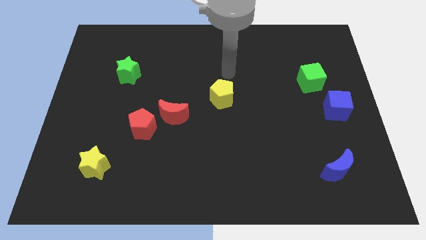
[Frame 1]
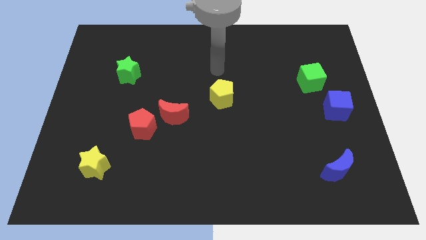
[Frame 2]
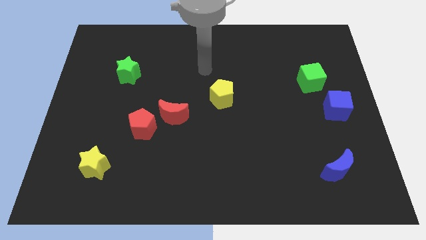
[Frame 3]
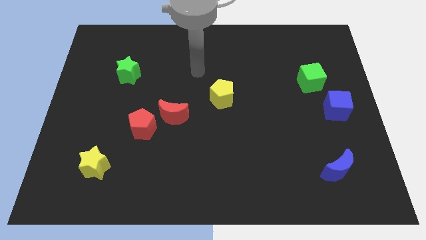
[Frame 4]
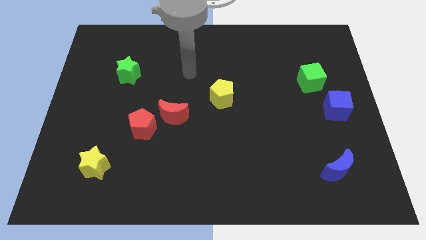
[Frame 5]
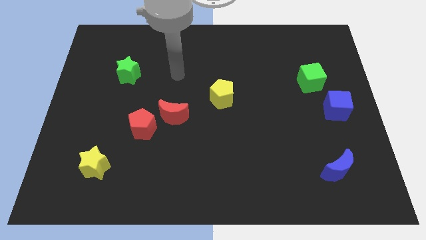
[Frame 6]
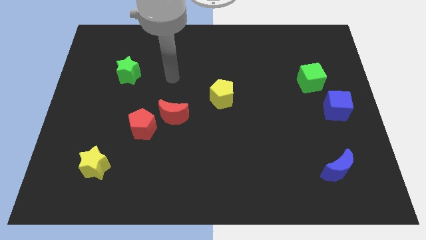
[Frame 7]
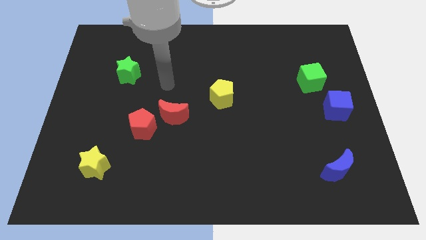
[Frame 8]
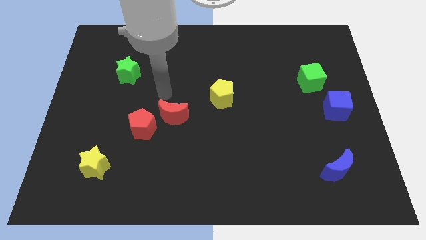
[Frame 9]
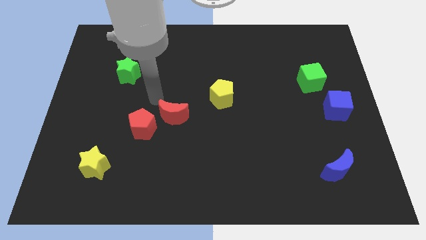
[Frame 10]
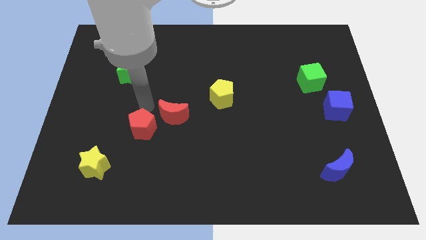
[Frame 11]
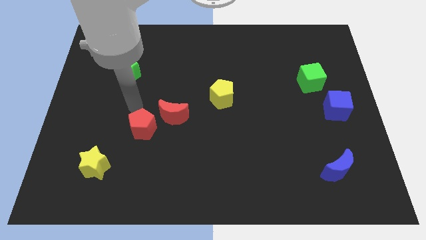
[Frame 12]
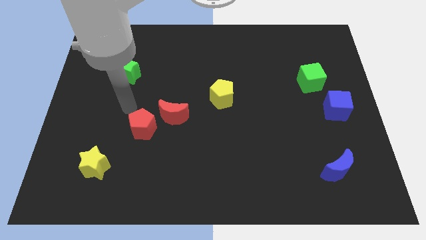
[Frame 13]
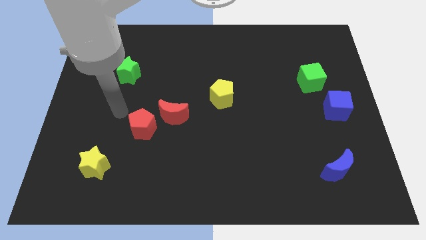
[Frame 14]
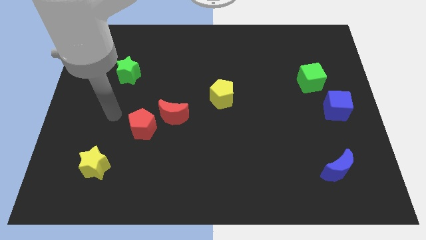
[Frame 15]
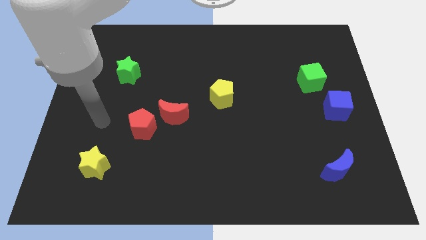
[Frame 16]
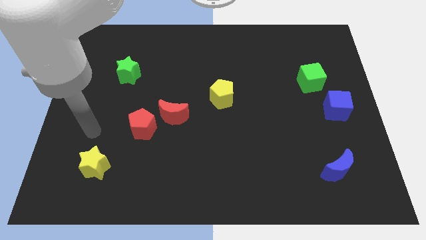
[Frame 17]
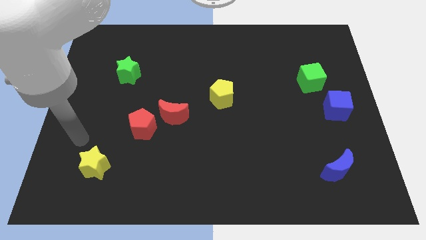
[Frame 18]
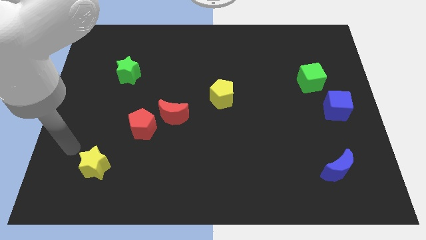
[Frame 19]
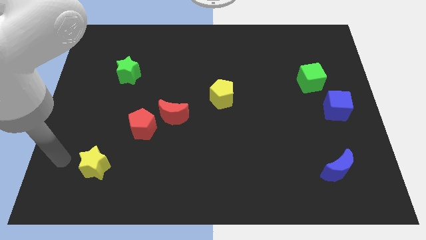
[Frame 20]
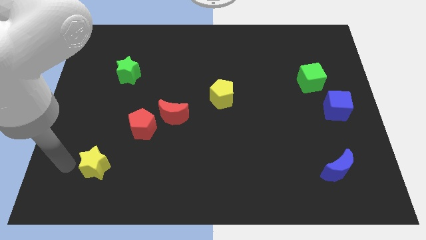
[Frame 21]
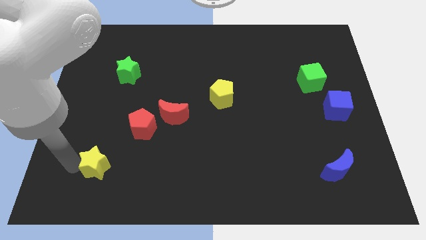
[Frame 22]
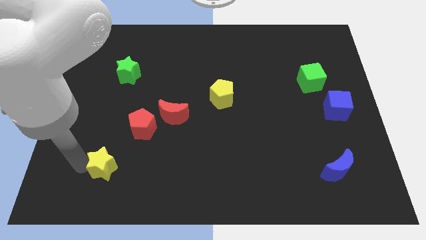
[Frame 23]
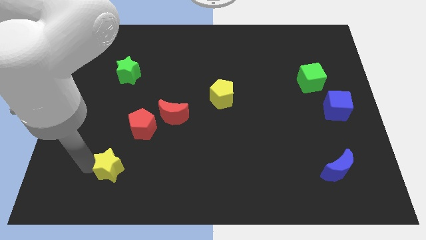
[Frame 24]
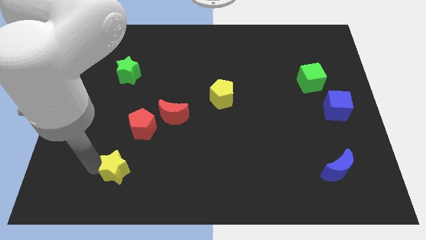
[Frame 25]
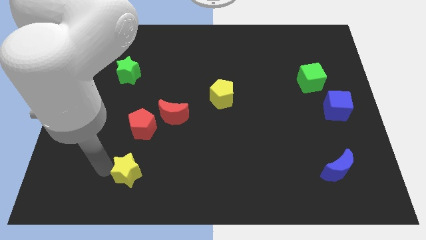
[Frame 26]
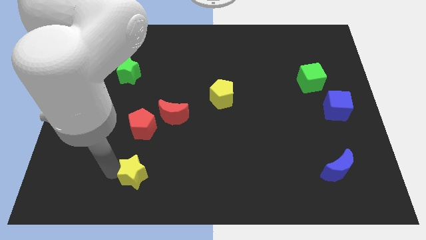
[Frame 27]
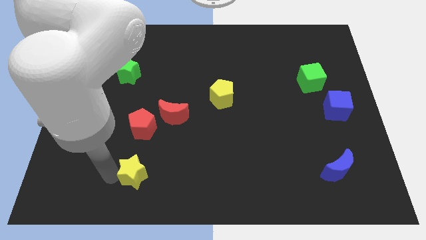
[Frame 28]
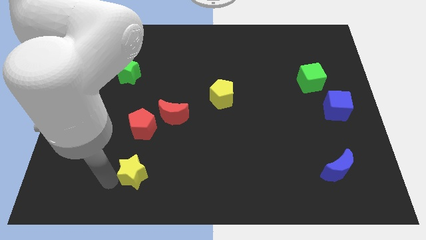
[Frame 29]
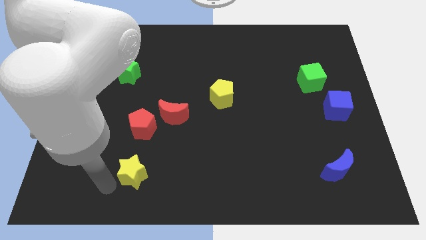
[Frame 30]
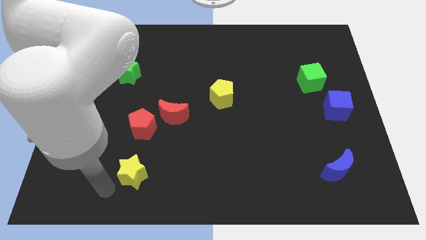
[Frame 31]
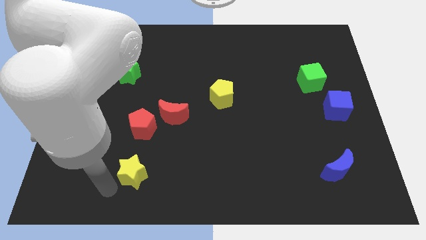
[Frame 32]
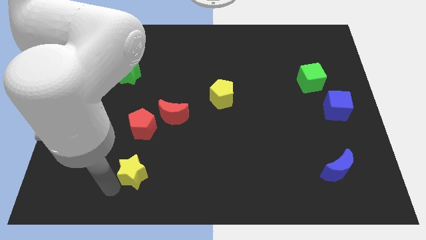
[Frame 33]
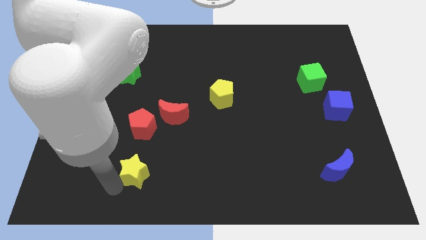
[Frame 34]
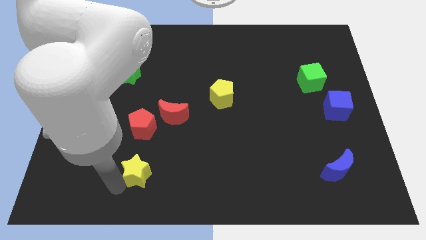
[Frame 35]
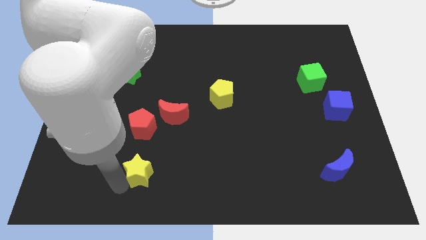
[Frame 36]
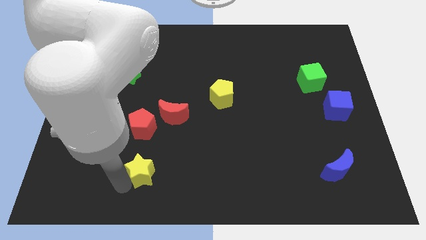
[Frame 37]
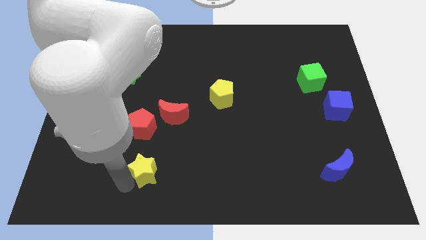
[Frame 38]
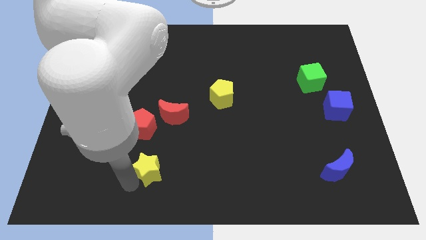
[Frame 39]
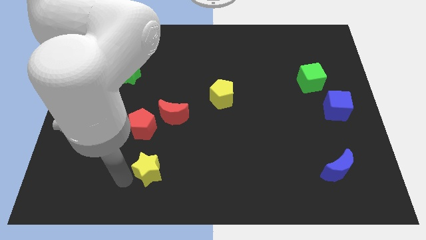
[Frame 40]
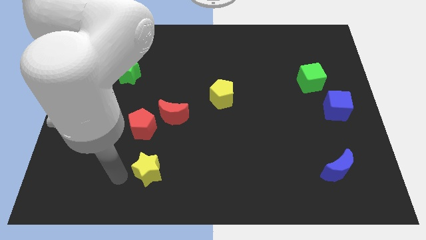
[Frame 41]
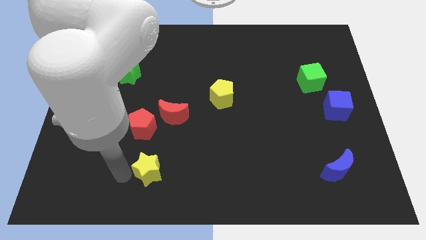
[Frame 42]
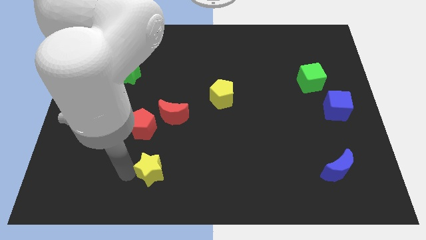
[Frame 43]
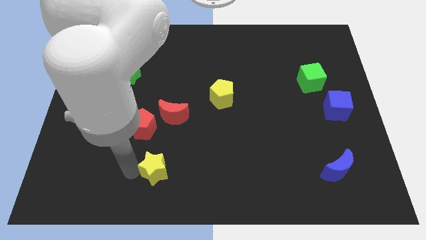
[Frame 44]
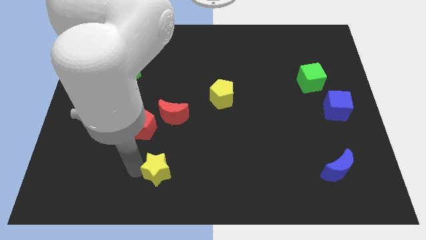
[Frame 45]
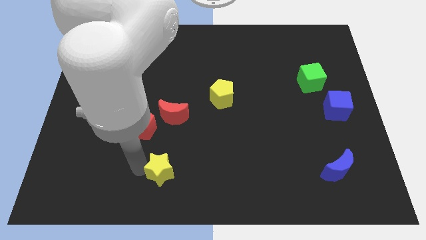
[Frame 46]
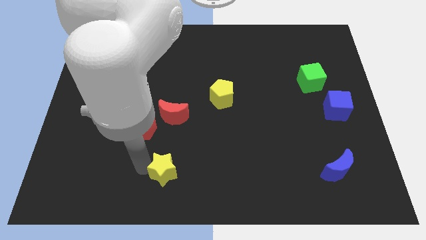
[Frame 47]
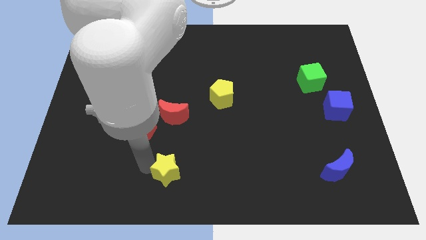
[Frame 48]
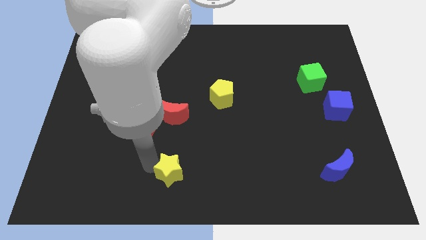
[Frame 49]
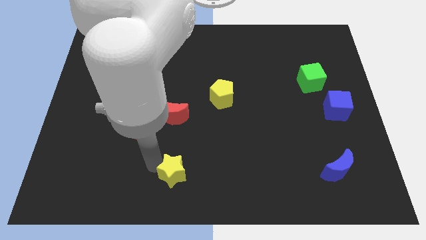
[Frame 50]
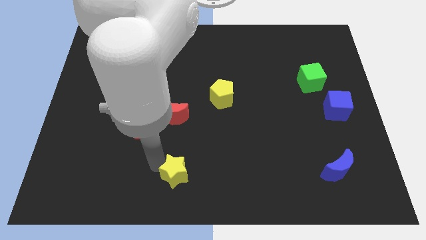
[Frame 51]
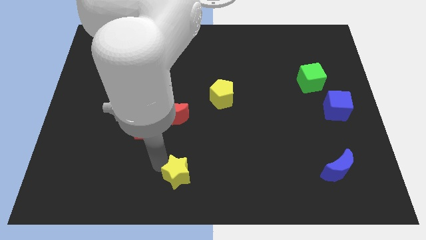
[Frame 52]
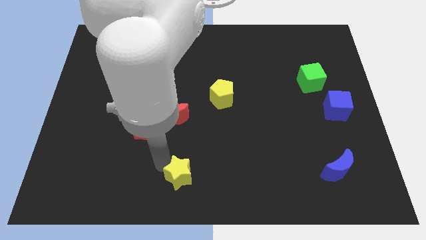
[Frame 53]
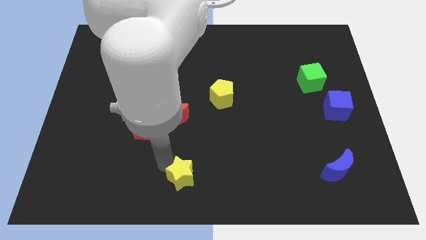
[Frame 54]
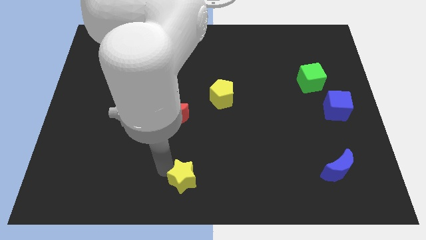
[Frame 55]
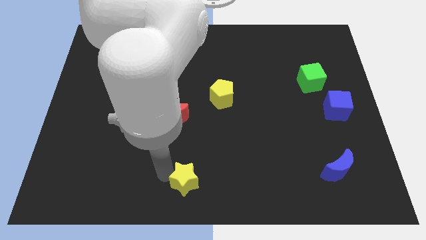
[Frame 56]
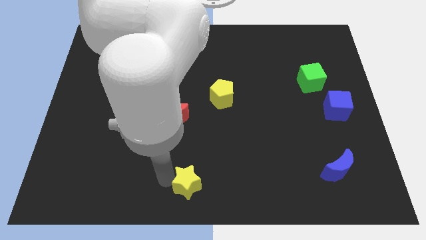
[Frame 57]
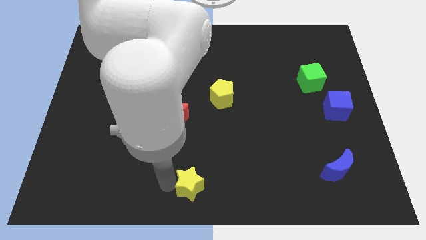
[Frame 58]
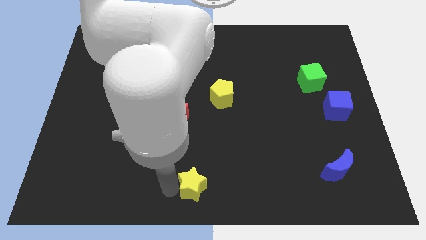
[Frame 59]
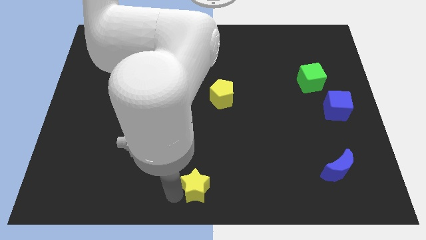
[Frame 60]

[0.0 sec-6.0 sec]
move the yellow star right

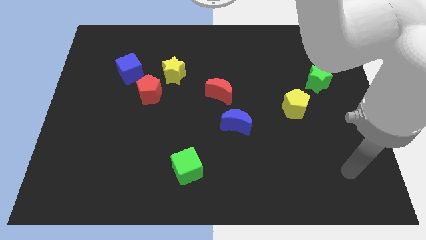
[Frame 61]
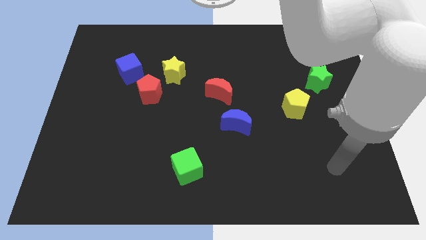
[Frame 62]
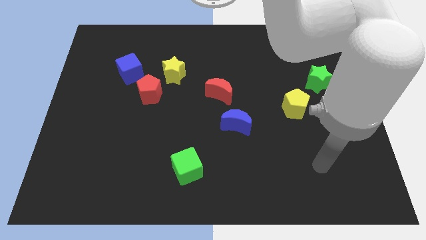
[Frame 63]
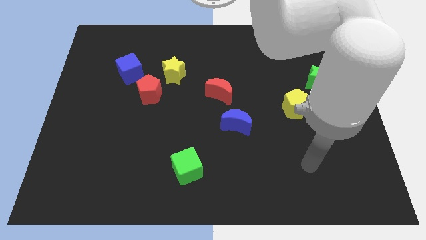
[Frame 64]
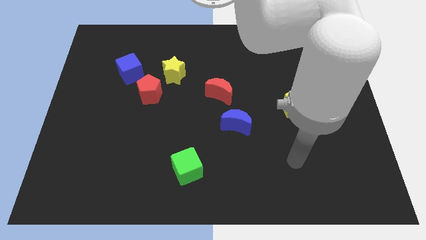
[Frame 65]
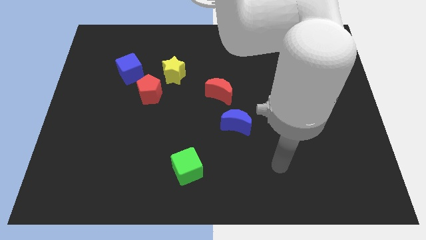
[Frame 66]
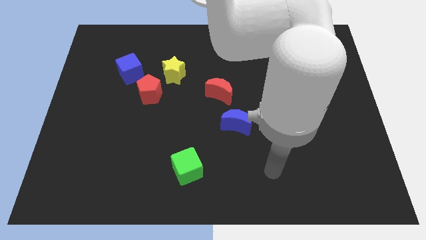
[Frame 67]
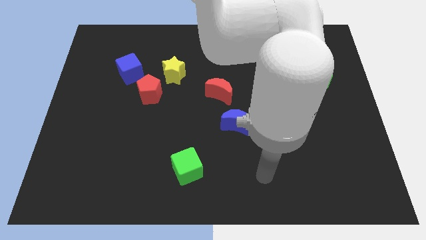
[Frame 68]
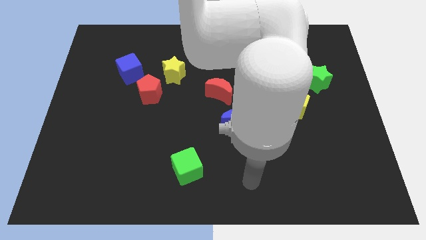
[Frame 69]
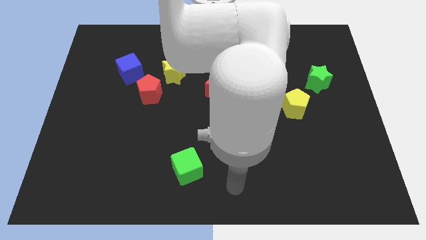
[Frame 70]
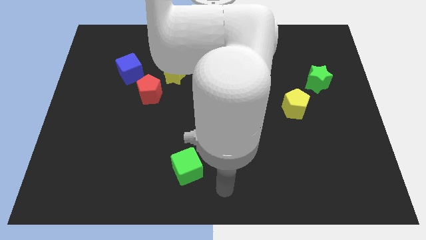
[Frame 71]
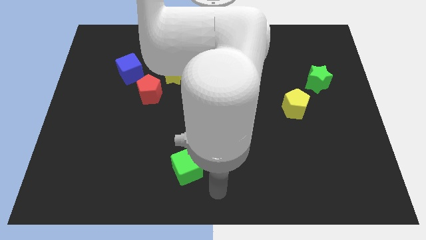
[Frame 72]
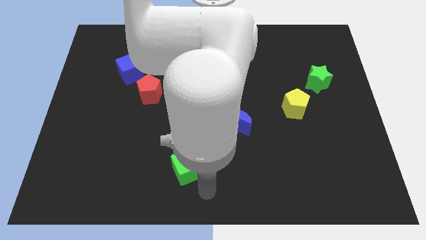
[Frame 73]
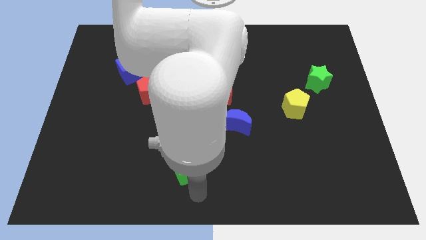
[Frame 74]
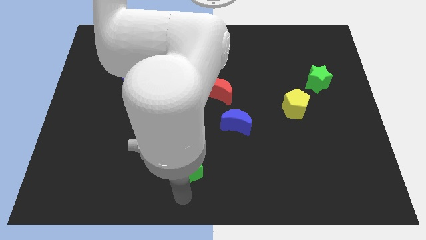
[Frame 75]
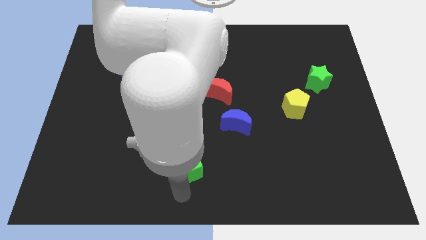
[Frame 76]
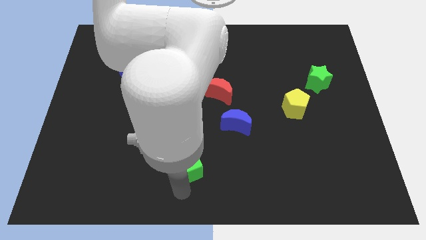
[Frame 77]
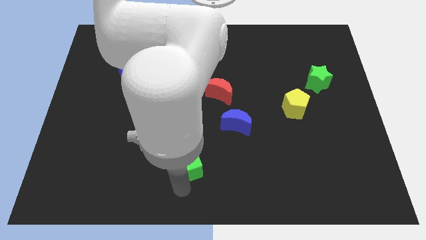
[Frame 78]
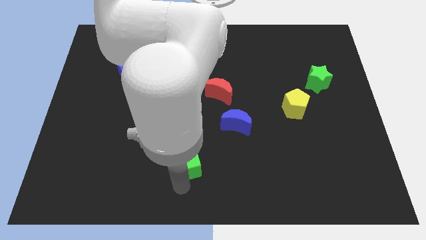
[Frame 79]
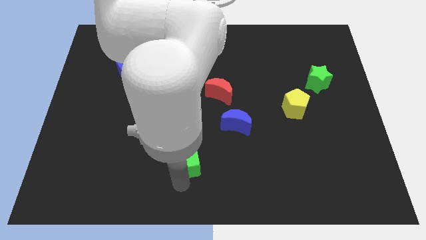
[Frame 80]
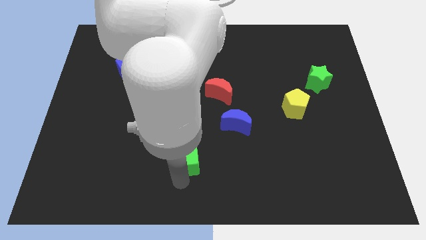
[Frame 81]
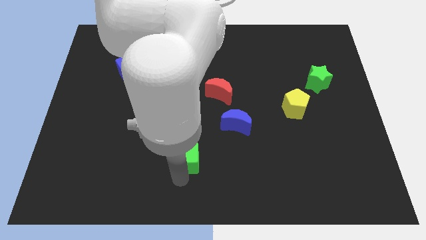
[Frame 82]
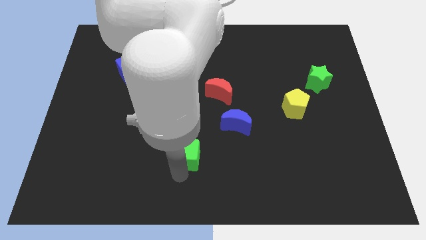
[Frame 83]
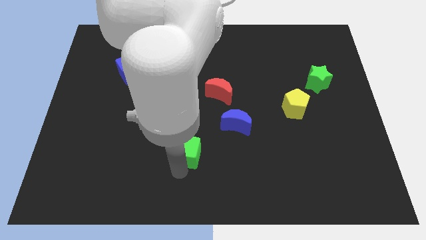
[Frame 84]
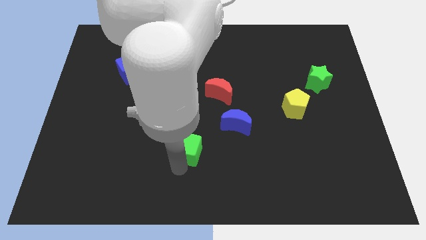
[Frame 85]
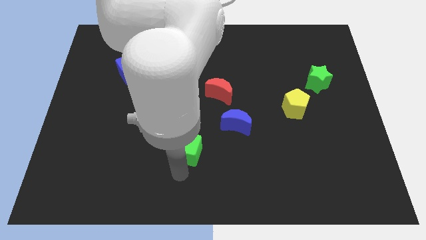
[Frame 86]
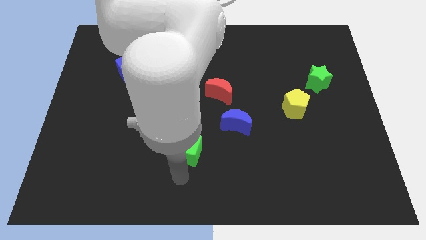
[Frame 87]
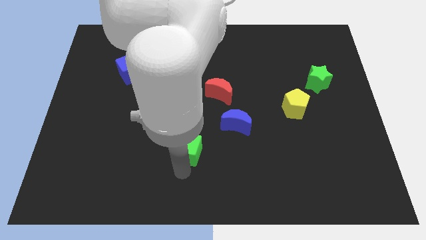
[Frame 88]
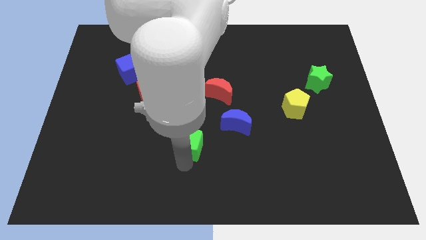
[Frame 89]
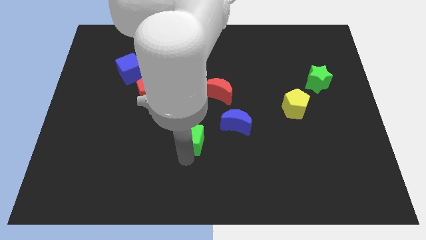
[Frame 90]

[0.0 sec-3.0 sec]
move the green cube up a bit
